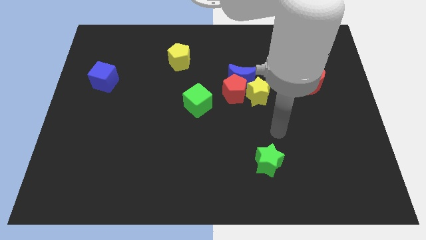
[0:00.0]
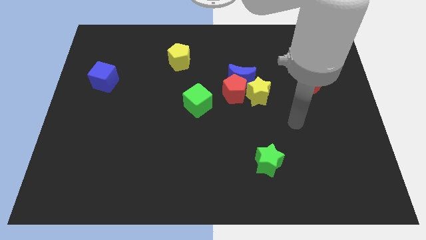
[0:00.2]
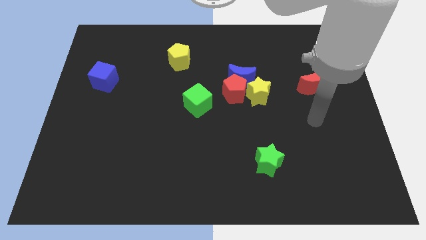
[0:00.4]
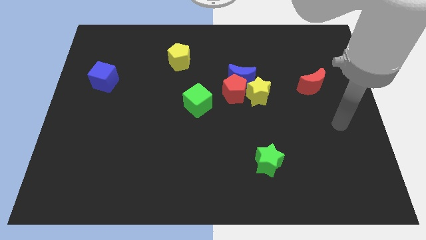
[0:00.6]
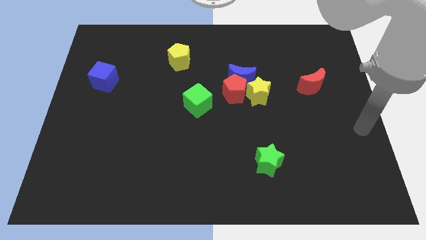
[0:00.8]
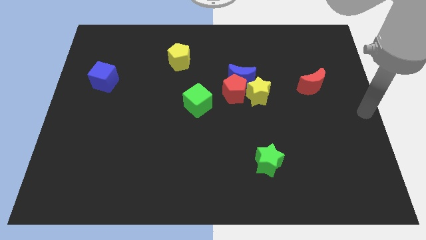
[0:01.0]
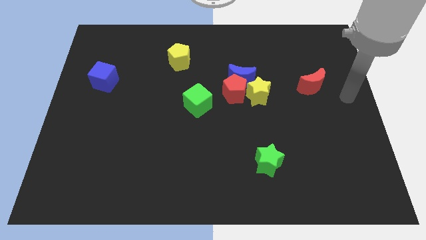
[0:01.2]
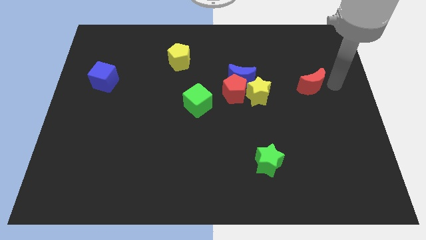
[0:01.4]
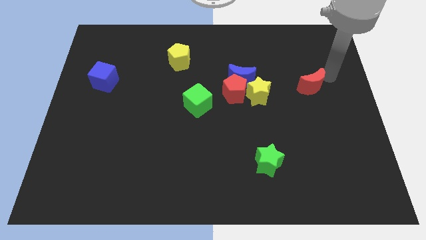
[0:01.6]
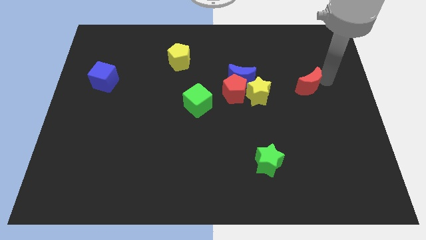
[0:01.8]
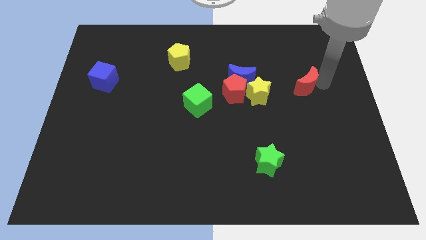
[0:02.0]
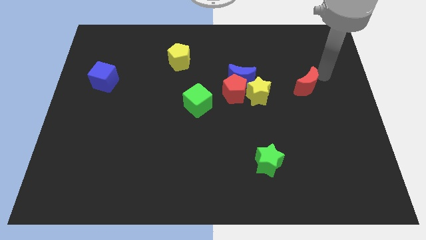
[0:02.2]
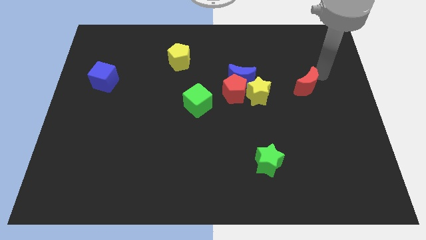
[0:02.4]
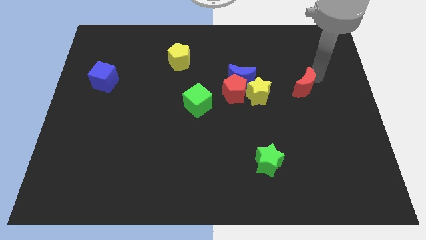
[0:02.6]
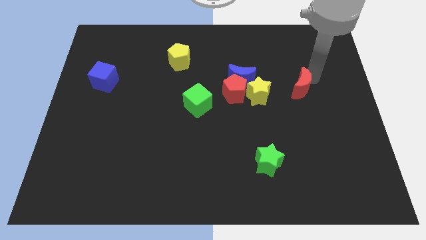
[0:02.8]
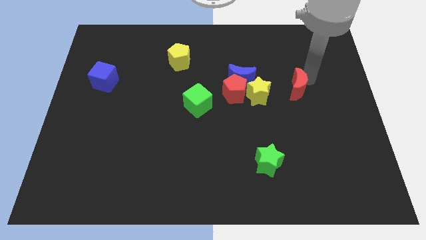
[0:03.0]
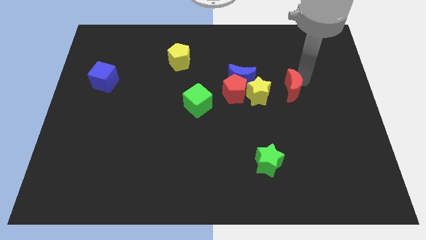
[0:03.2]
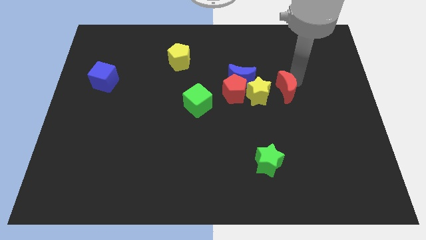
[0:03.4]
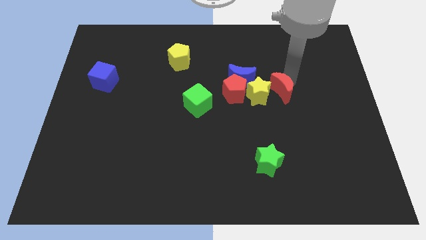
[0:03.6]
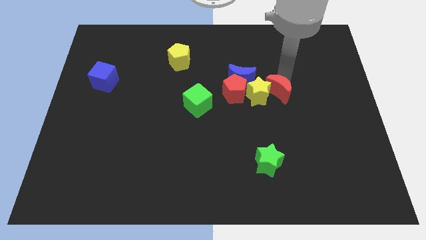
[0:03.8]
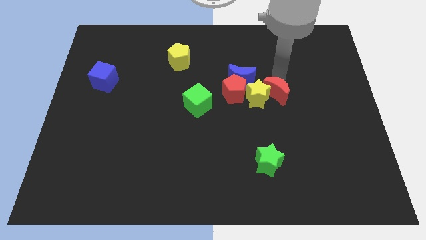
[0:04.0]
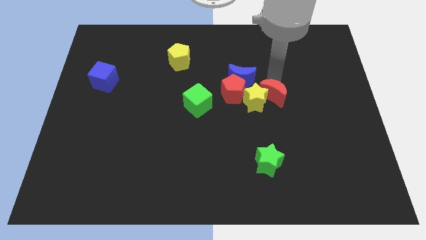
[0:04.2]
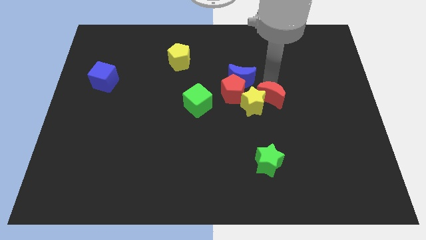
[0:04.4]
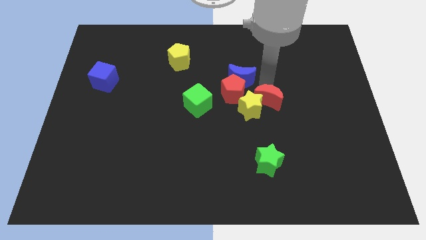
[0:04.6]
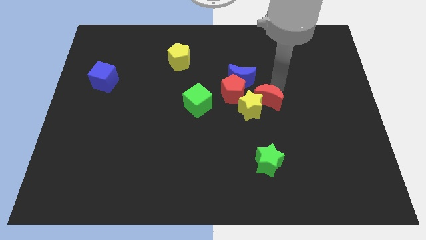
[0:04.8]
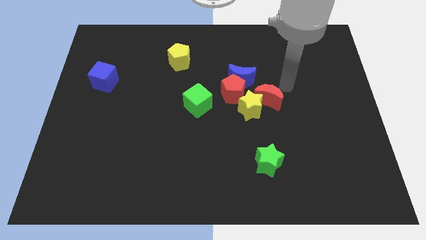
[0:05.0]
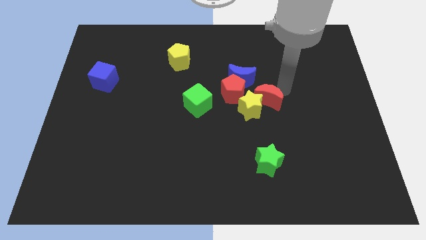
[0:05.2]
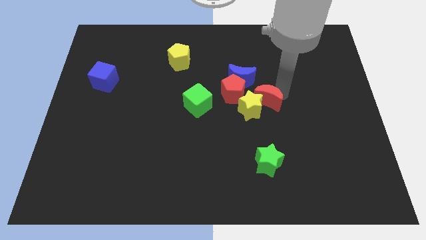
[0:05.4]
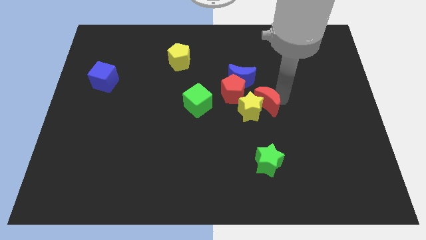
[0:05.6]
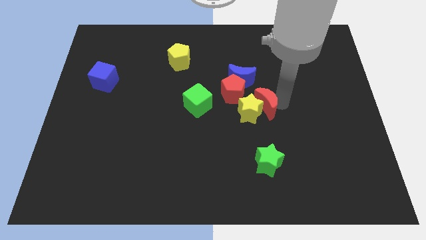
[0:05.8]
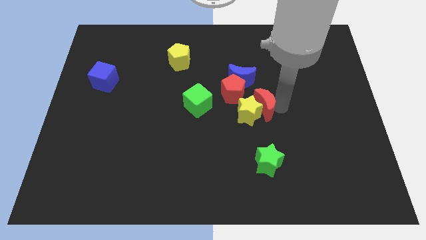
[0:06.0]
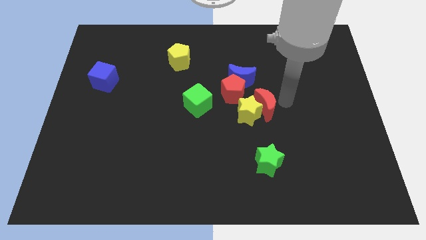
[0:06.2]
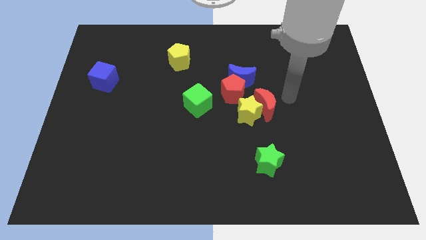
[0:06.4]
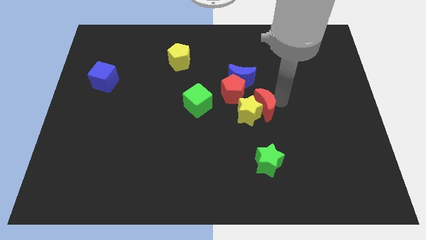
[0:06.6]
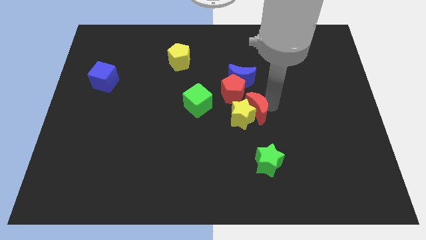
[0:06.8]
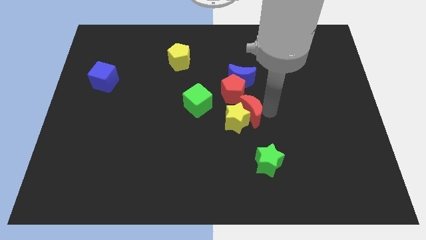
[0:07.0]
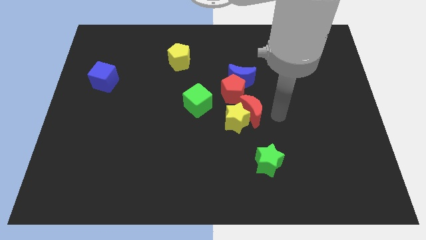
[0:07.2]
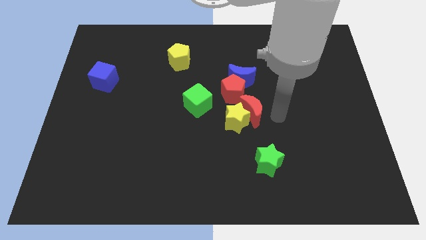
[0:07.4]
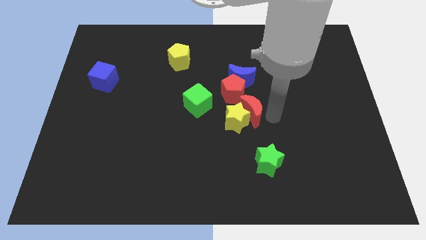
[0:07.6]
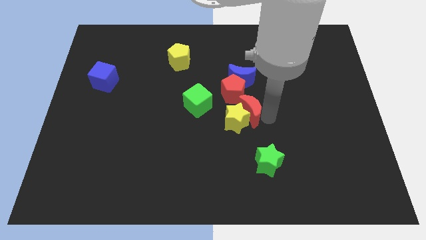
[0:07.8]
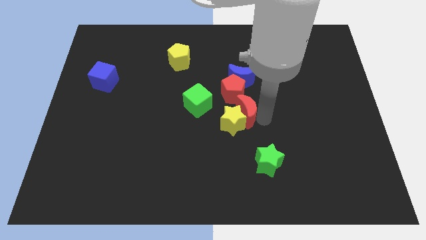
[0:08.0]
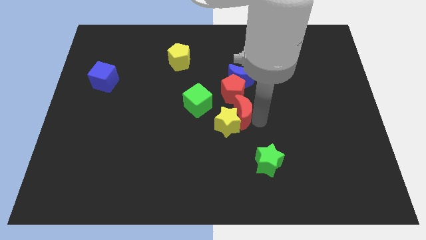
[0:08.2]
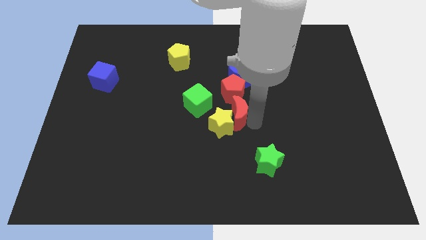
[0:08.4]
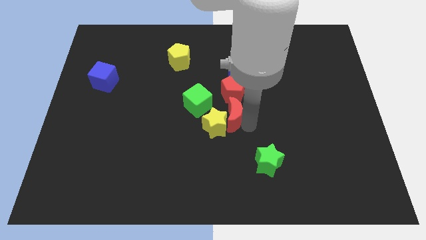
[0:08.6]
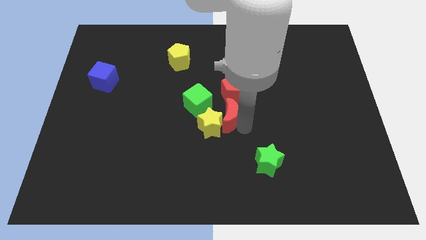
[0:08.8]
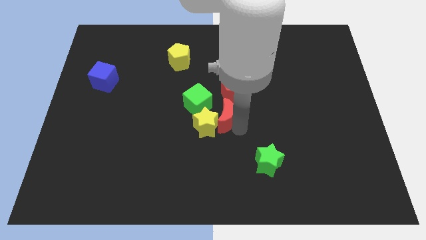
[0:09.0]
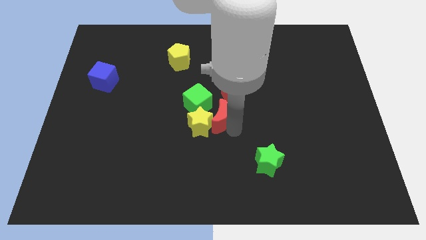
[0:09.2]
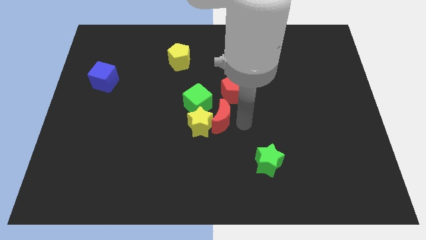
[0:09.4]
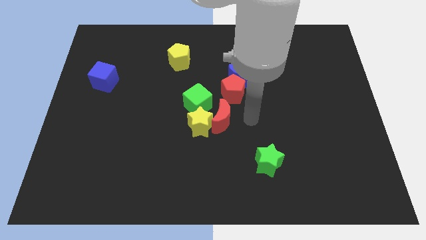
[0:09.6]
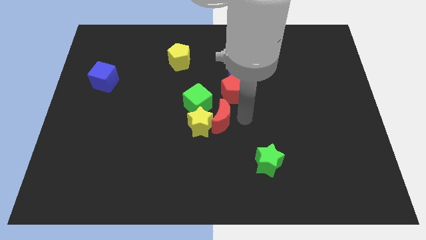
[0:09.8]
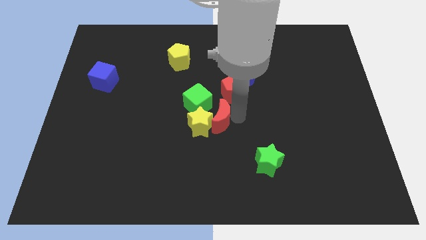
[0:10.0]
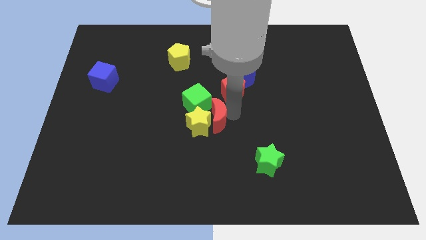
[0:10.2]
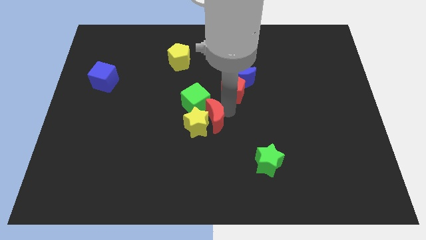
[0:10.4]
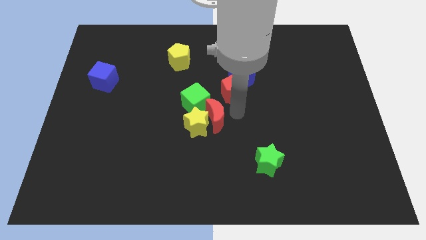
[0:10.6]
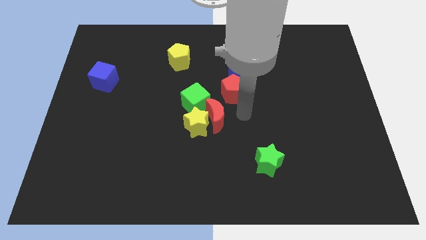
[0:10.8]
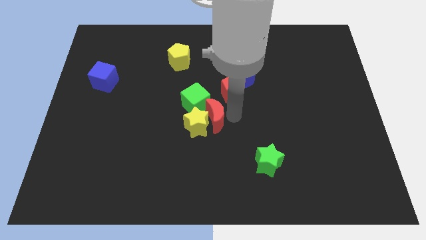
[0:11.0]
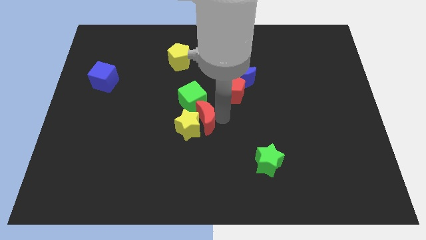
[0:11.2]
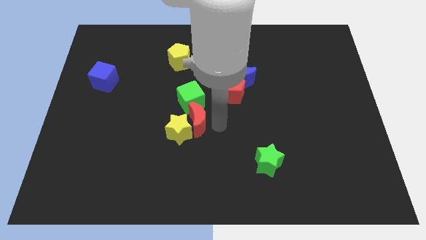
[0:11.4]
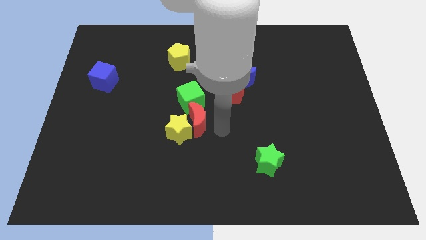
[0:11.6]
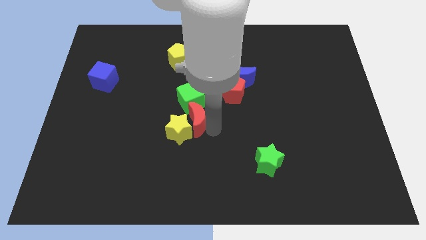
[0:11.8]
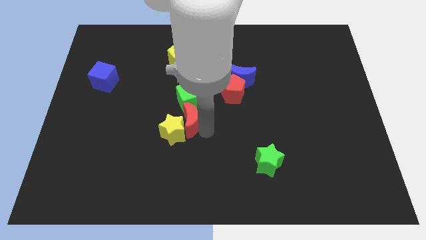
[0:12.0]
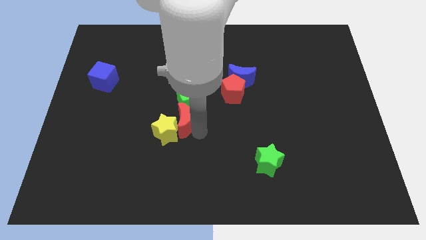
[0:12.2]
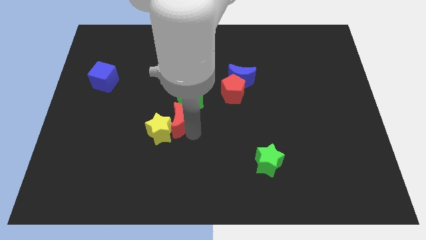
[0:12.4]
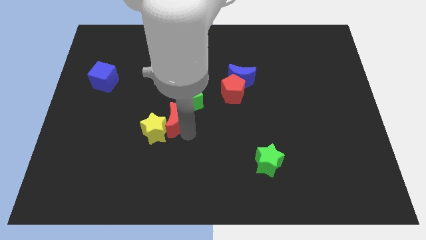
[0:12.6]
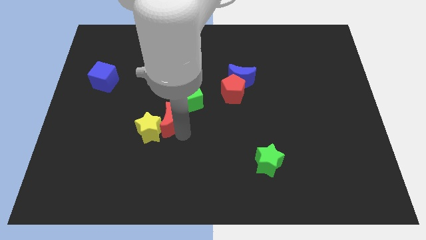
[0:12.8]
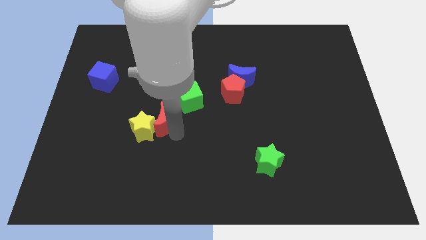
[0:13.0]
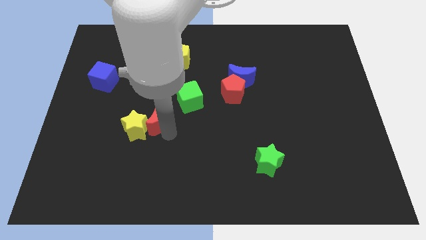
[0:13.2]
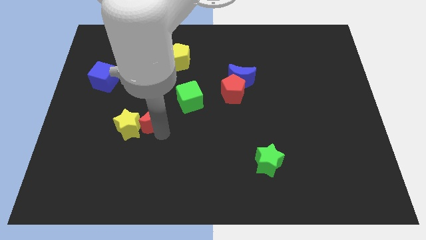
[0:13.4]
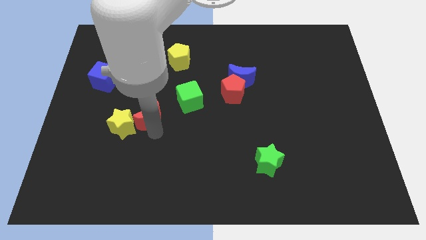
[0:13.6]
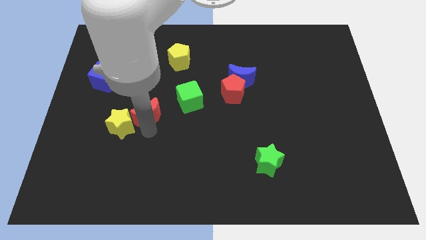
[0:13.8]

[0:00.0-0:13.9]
move the red moon to the left side of the green cube

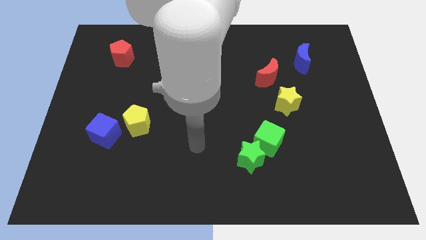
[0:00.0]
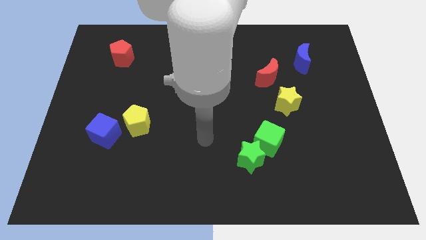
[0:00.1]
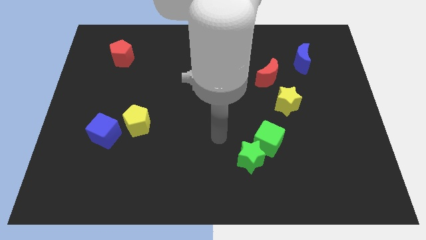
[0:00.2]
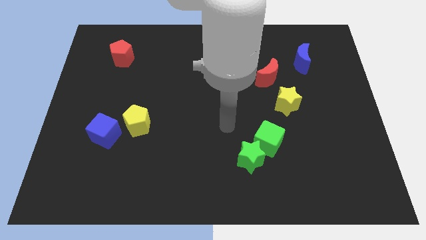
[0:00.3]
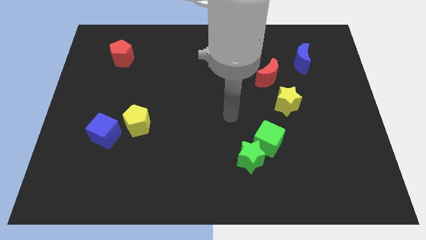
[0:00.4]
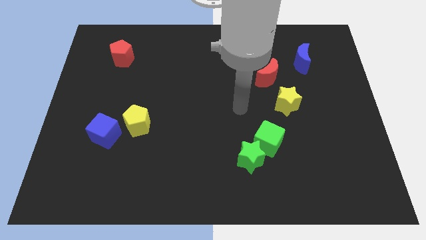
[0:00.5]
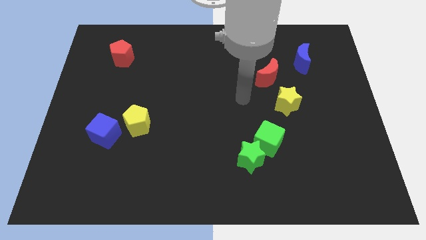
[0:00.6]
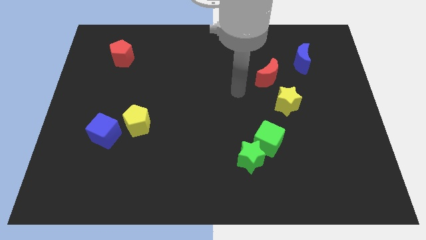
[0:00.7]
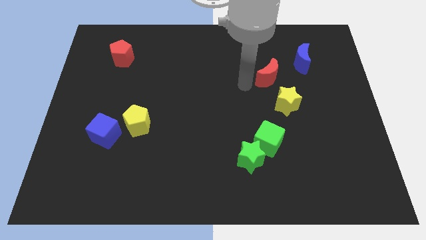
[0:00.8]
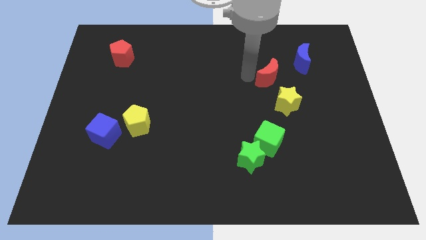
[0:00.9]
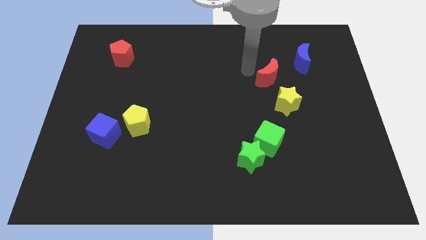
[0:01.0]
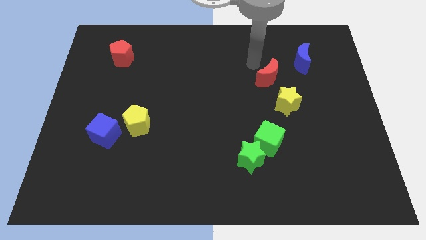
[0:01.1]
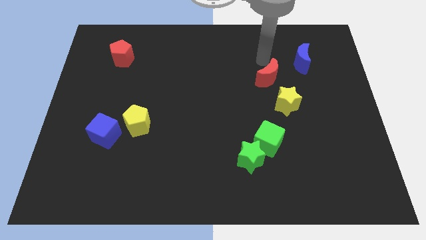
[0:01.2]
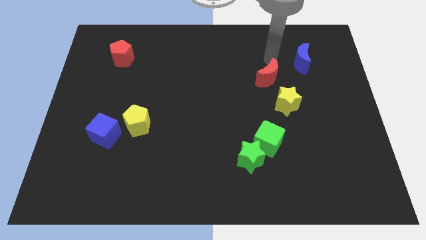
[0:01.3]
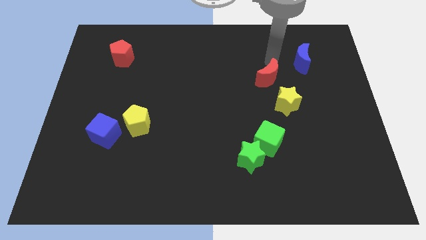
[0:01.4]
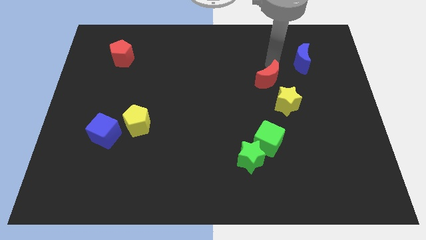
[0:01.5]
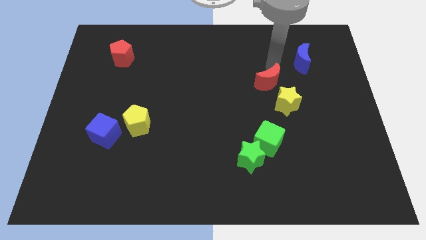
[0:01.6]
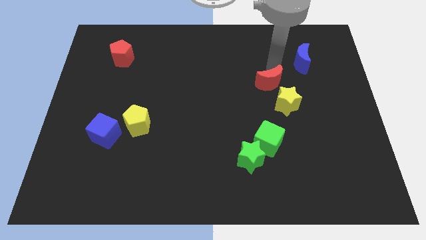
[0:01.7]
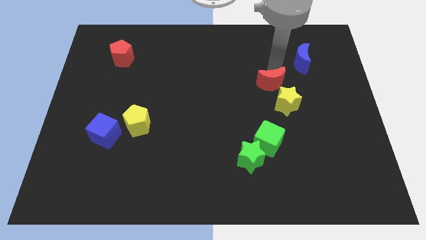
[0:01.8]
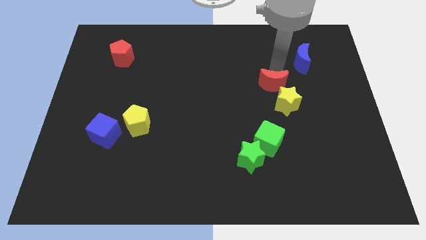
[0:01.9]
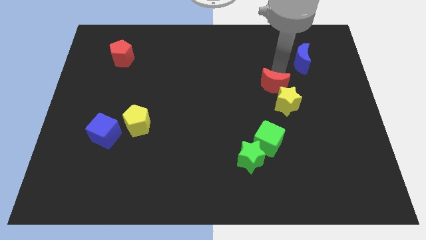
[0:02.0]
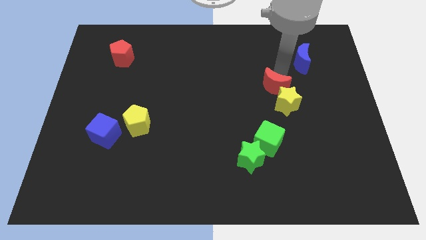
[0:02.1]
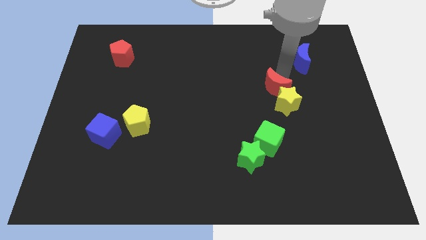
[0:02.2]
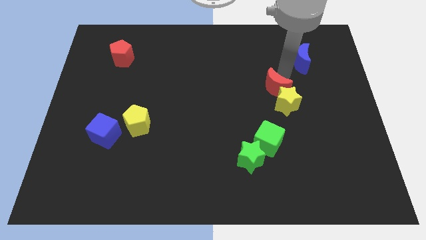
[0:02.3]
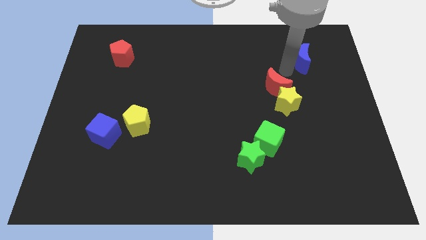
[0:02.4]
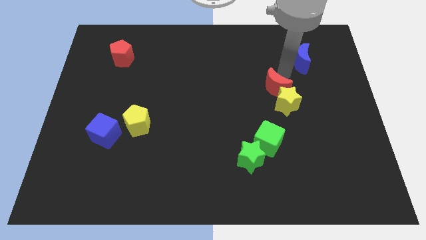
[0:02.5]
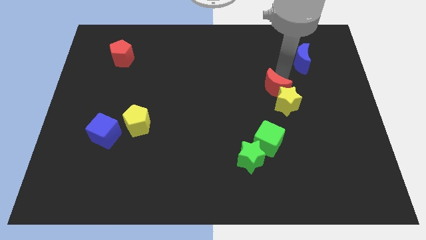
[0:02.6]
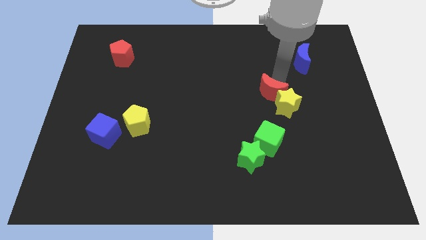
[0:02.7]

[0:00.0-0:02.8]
put the red moon to the top of the green cube
